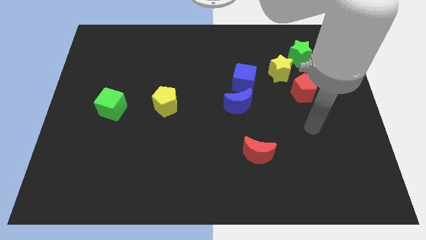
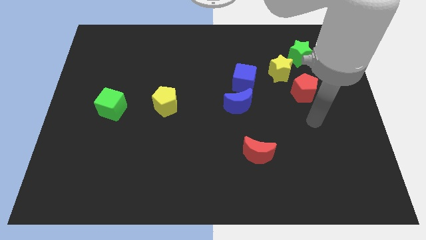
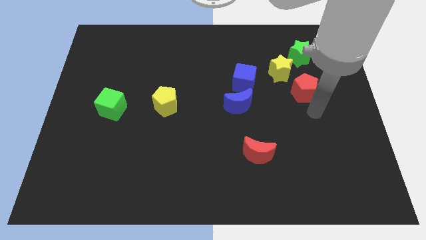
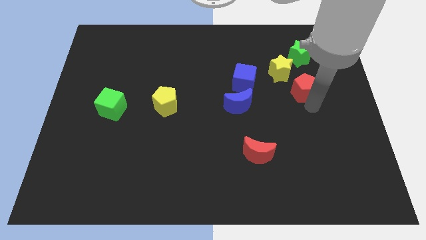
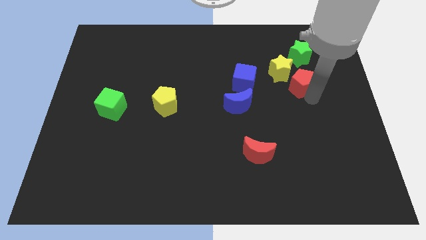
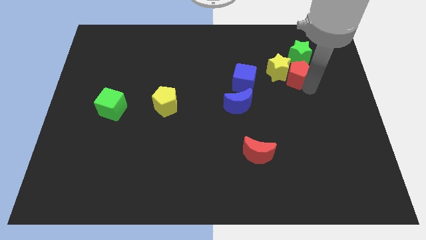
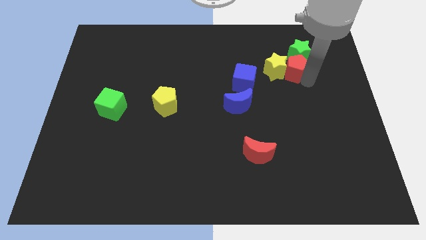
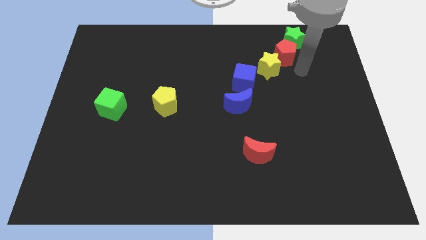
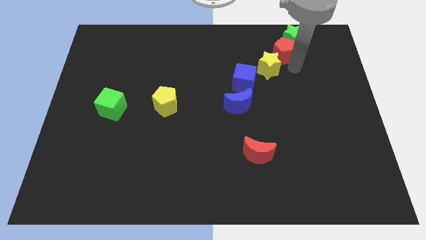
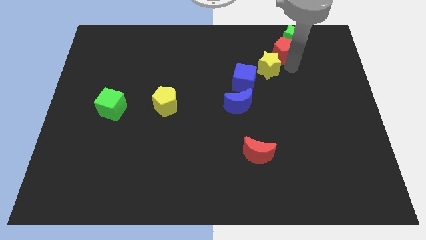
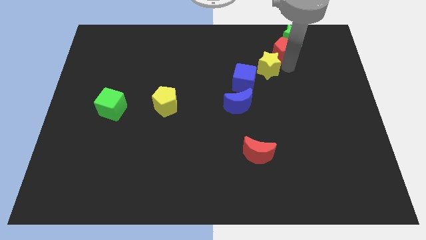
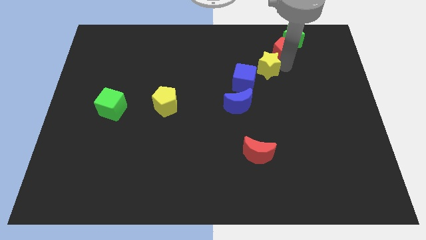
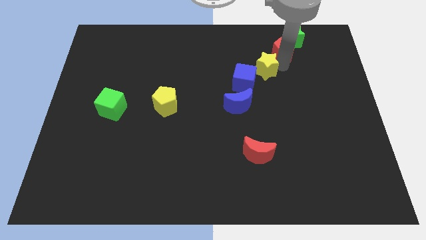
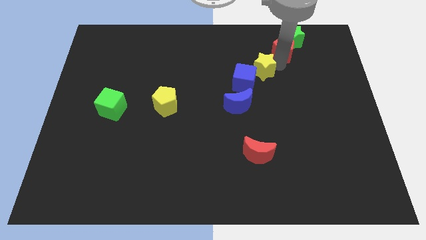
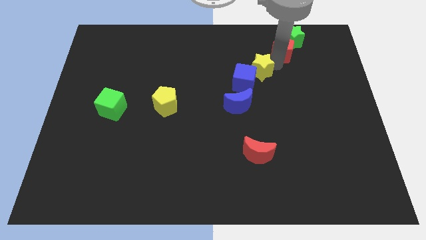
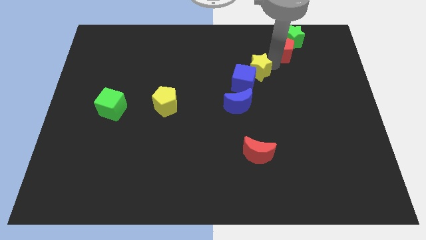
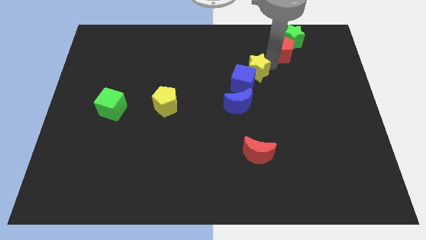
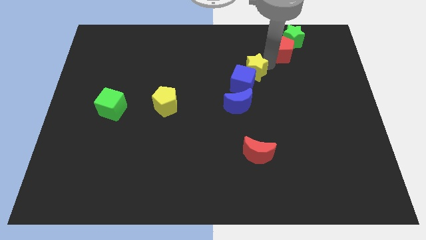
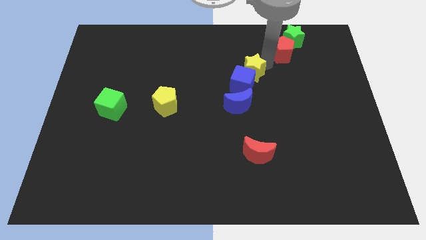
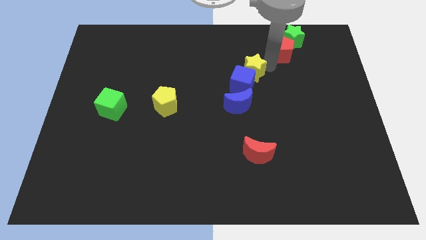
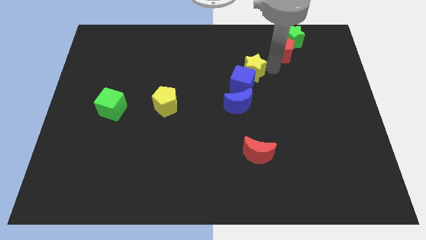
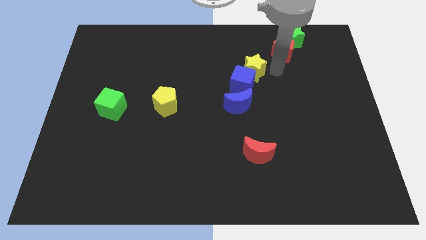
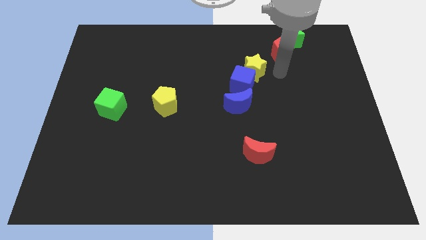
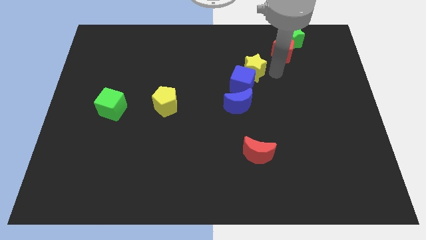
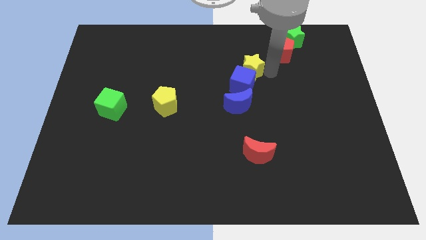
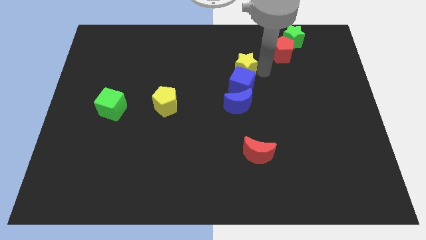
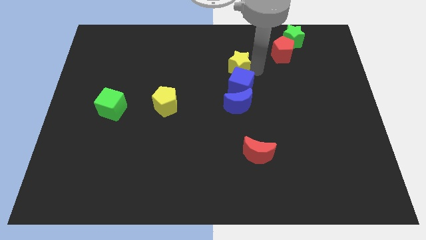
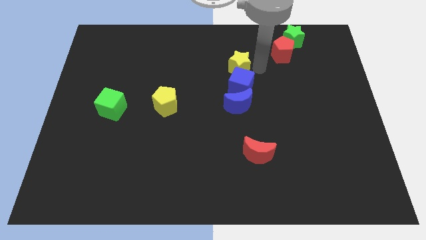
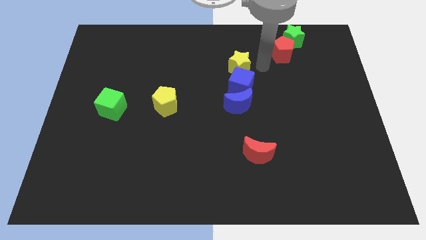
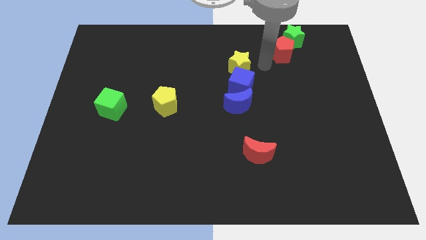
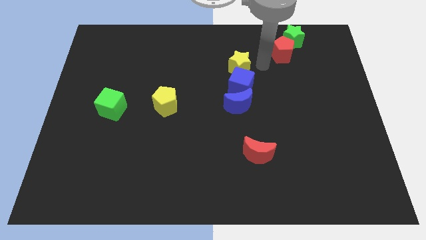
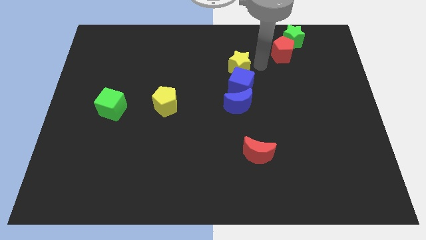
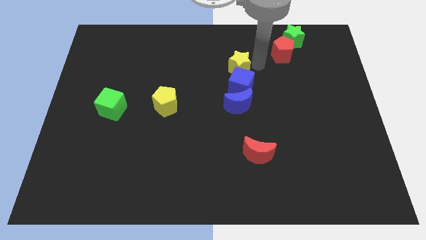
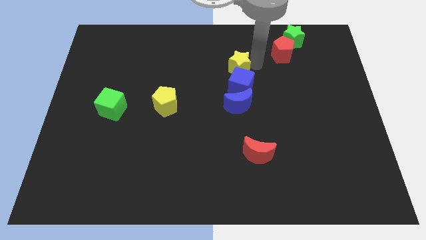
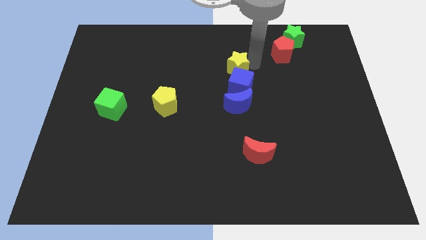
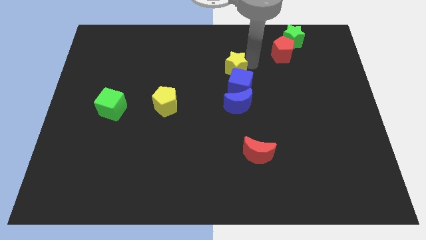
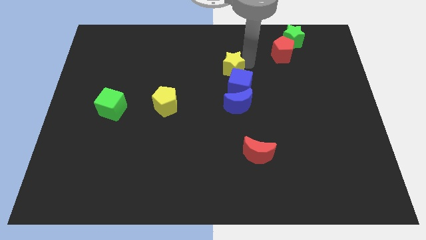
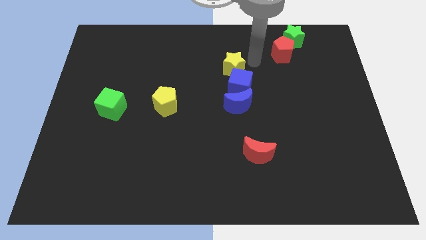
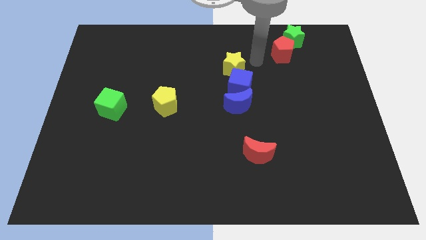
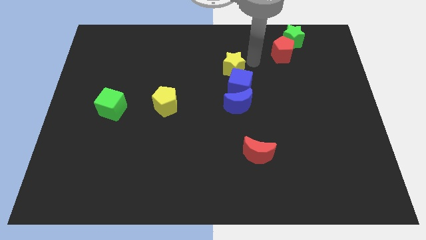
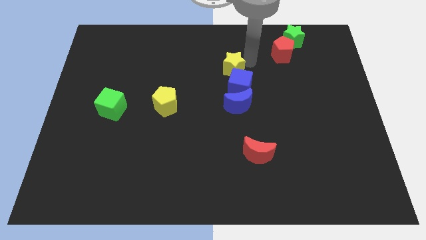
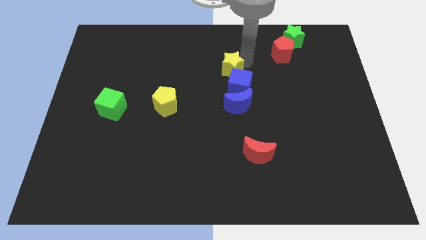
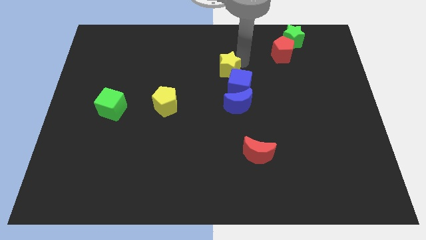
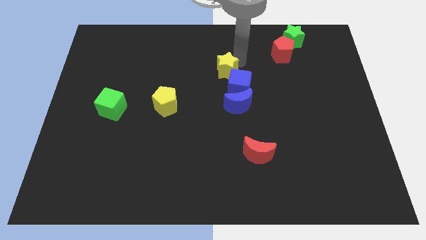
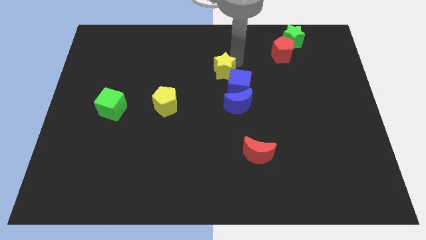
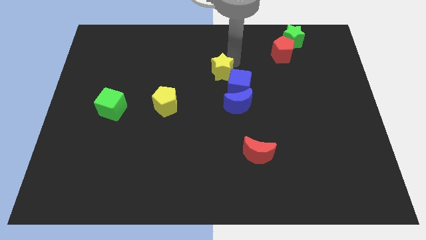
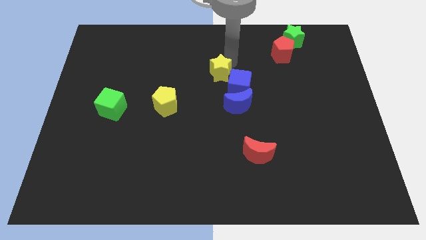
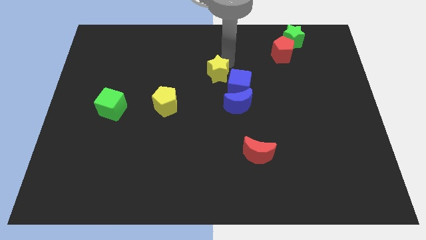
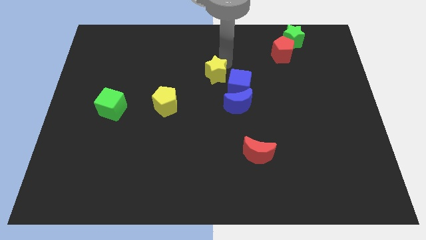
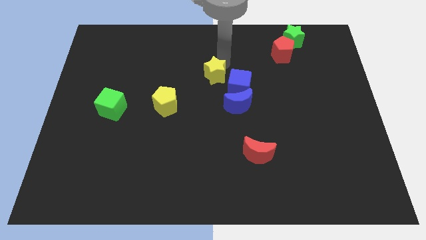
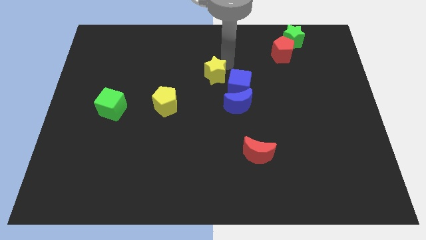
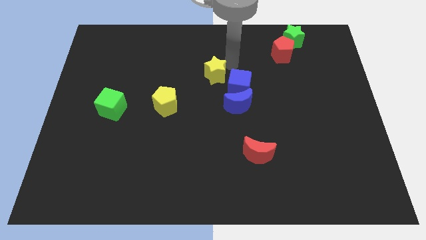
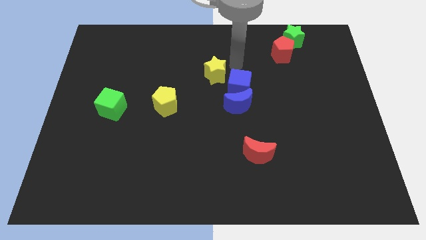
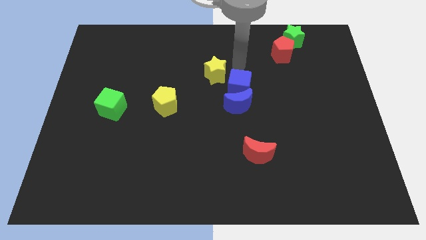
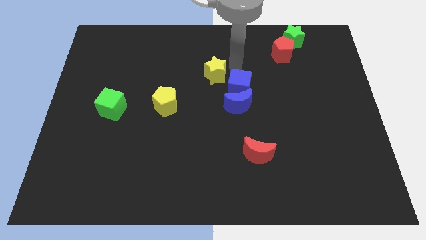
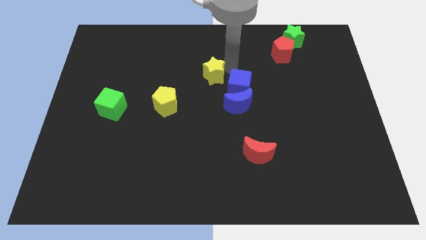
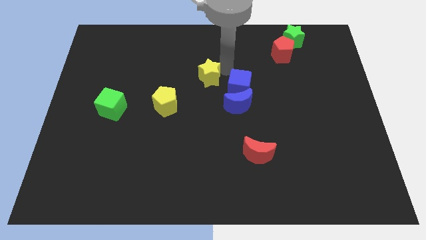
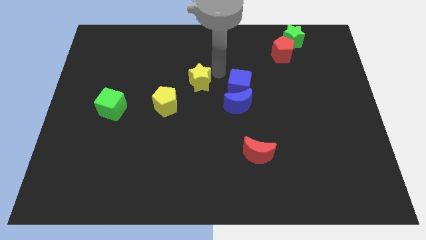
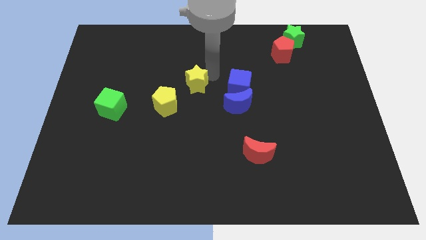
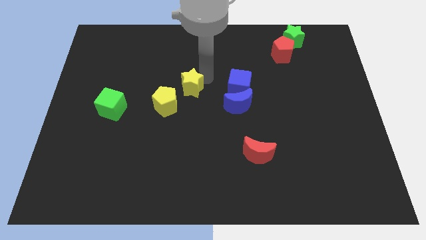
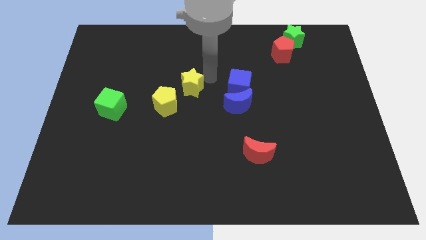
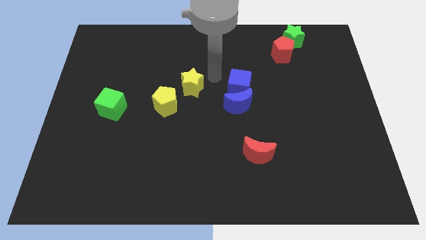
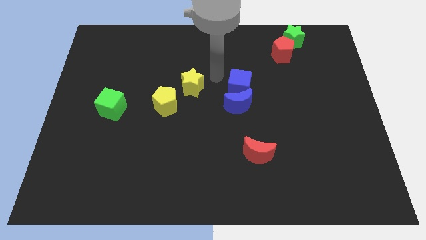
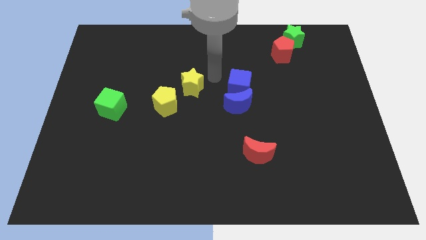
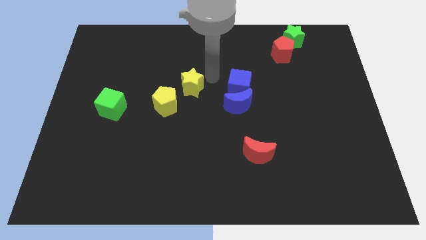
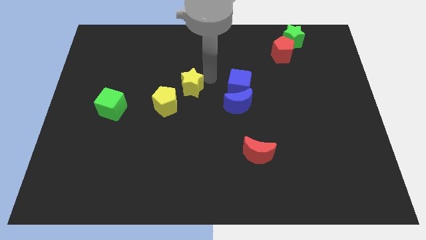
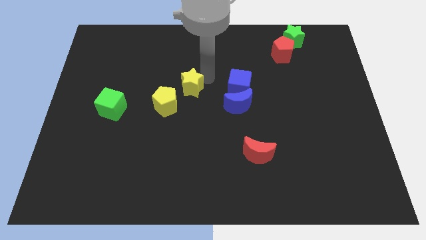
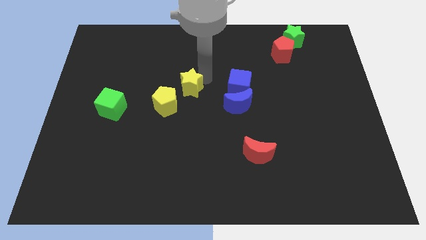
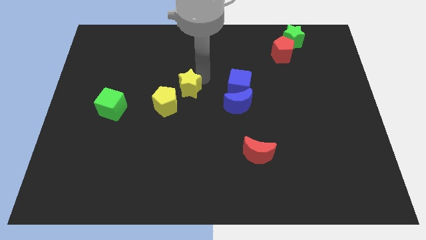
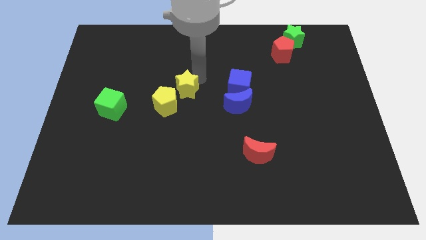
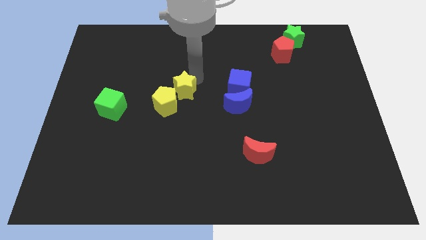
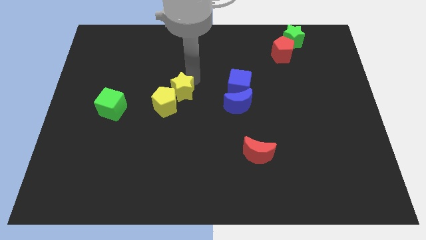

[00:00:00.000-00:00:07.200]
put the yellow star to the yellow pentagon

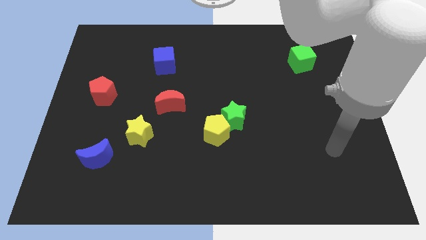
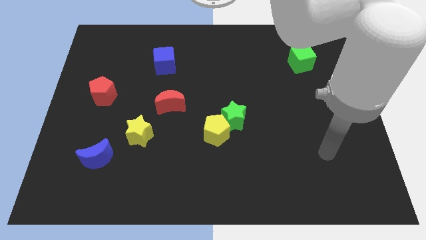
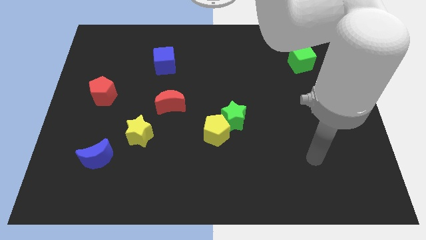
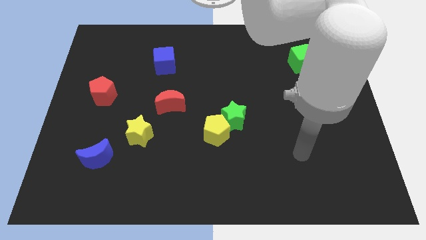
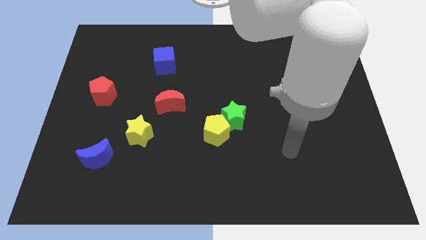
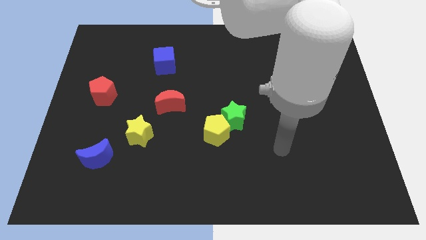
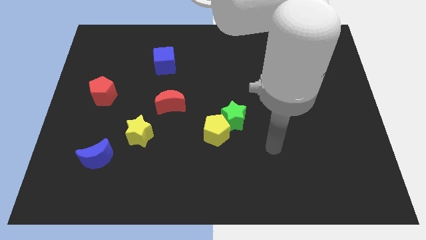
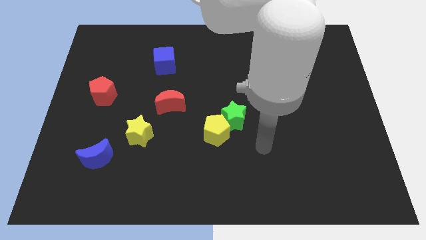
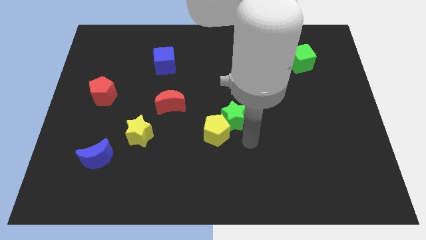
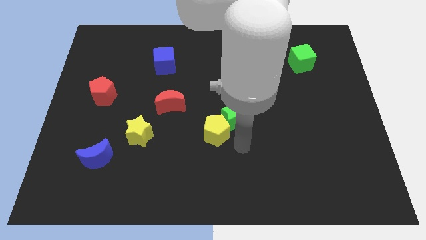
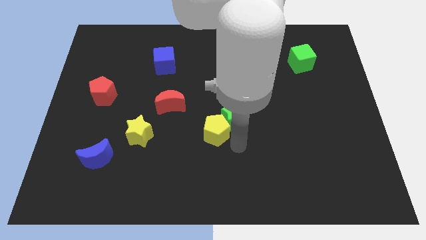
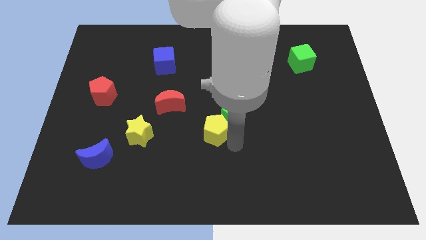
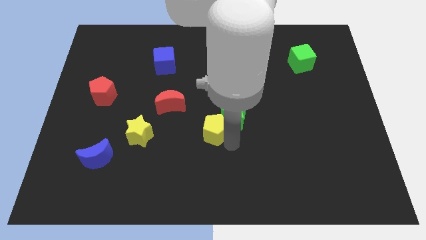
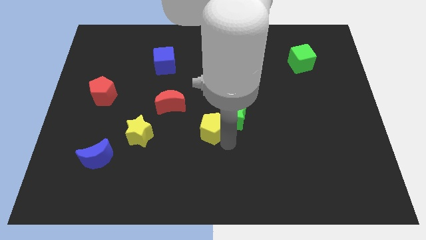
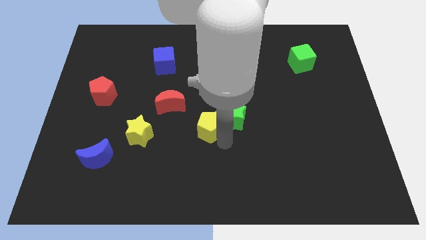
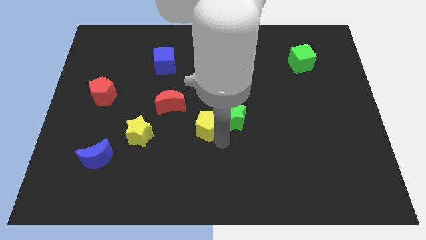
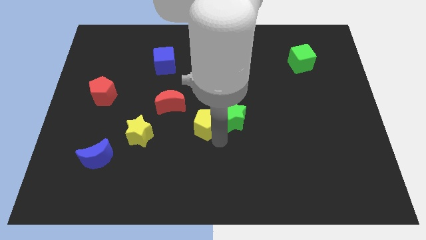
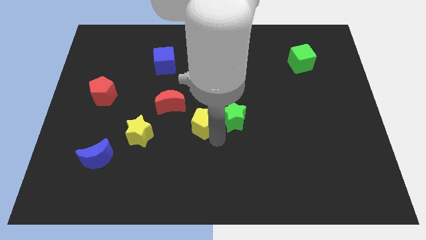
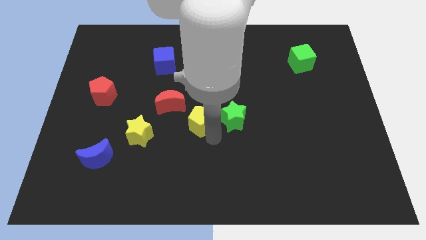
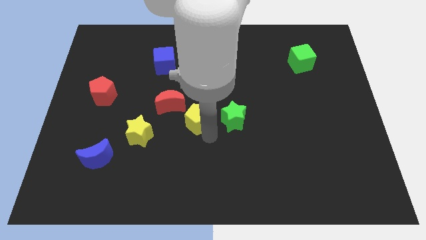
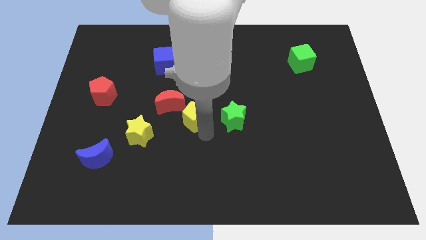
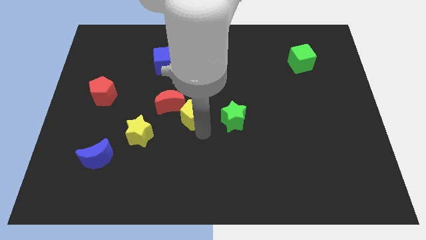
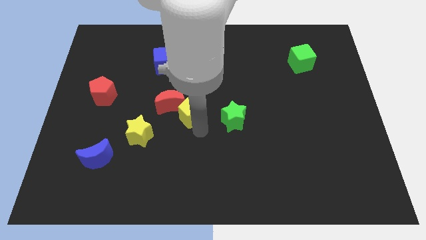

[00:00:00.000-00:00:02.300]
push the yellow pentagon next to the red moon
